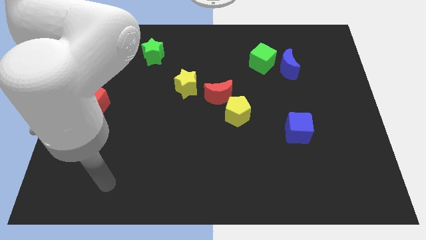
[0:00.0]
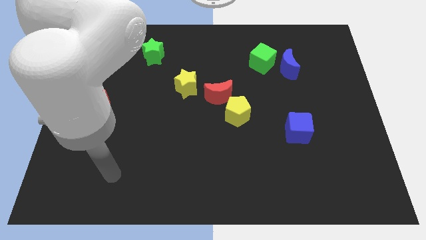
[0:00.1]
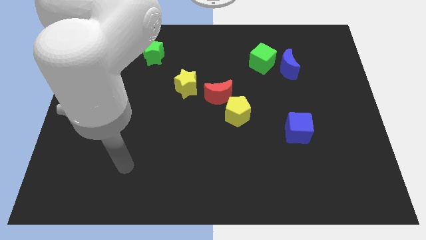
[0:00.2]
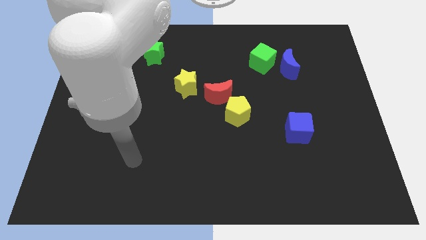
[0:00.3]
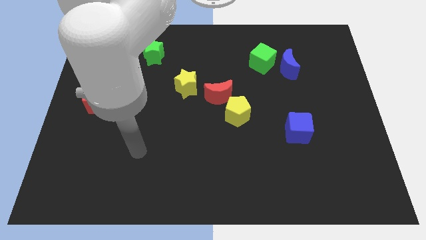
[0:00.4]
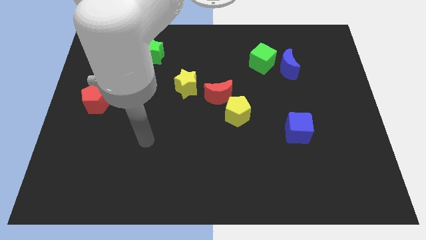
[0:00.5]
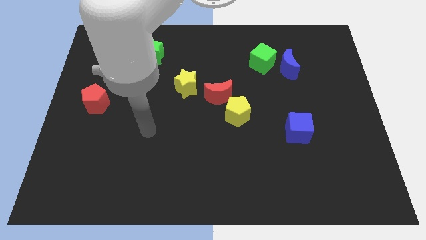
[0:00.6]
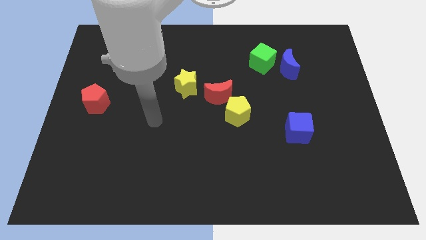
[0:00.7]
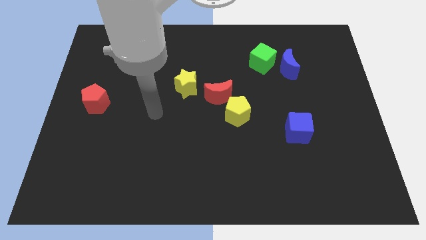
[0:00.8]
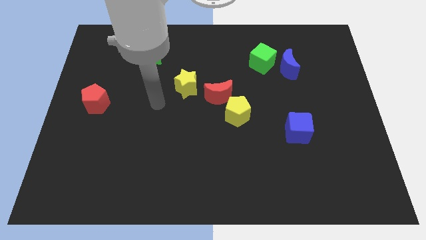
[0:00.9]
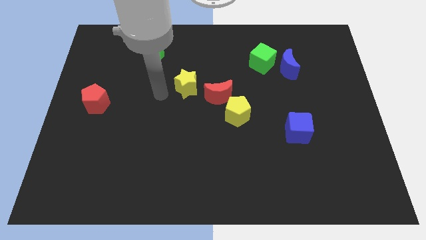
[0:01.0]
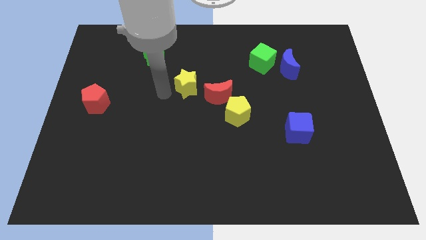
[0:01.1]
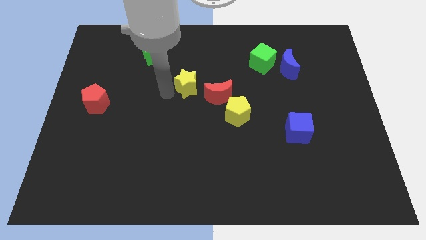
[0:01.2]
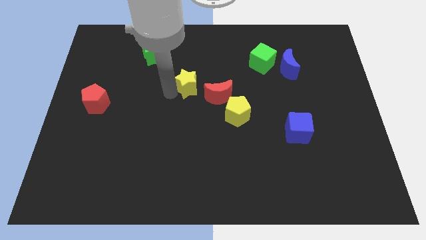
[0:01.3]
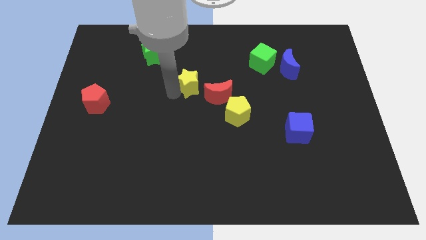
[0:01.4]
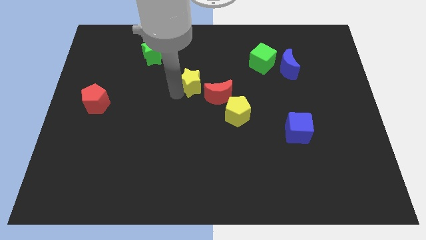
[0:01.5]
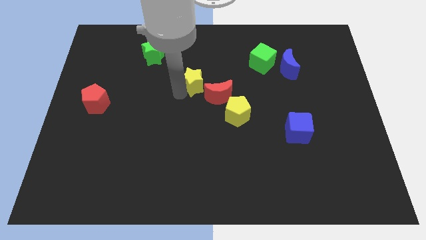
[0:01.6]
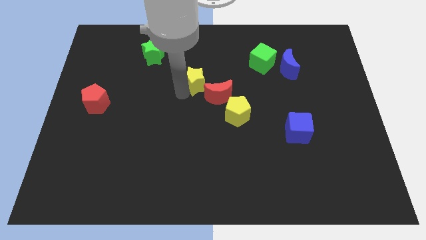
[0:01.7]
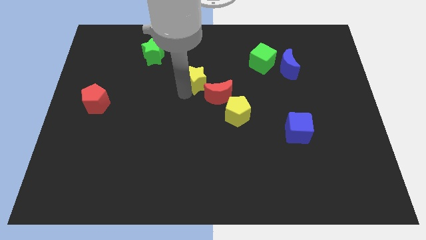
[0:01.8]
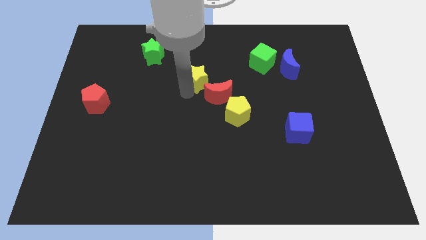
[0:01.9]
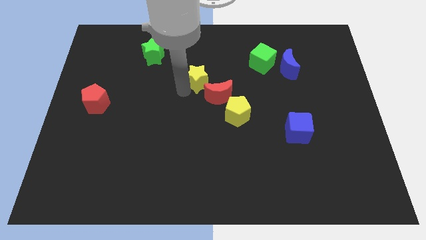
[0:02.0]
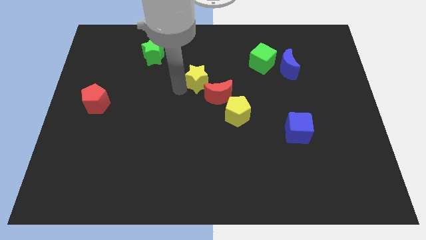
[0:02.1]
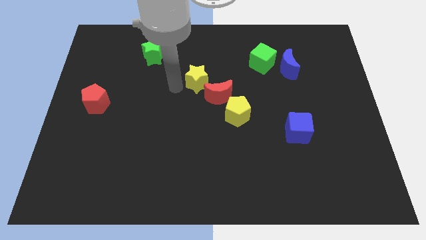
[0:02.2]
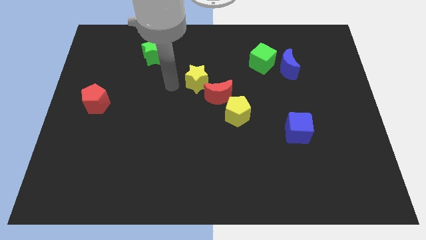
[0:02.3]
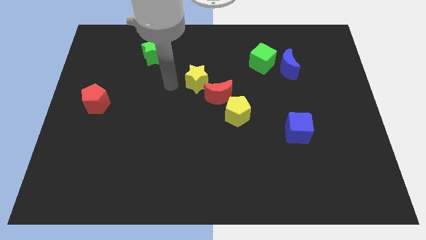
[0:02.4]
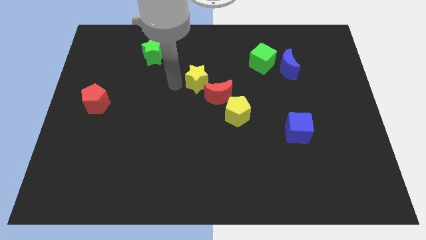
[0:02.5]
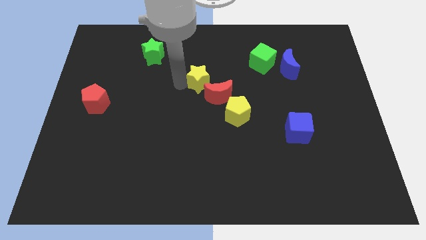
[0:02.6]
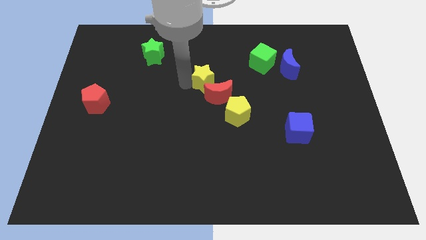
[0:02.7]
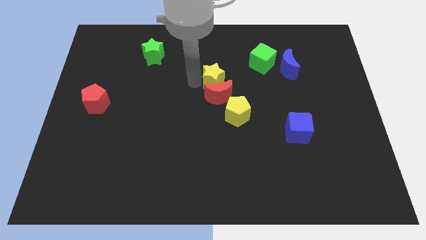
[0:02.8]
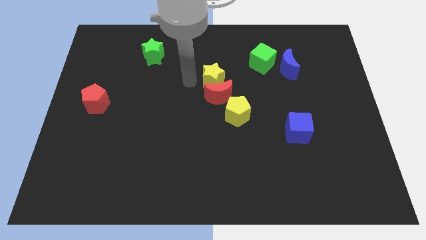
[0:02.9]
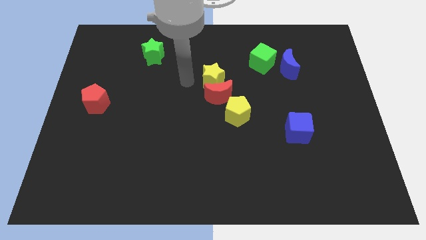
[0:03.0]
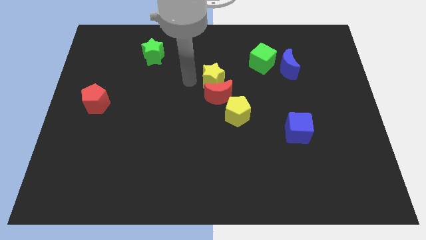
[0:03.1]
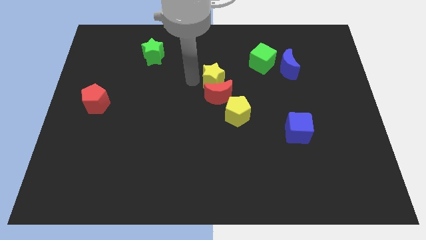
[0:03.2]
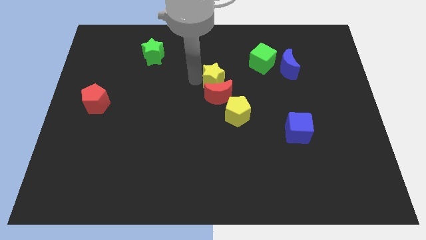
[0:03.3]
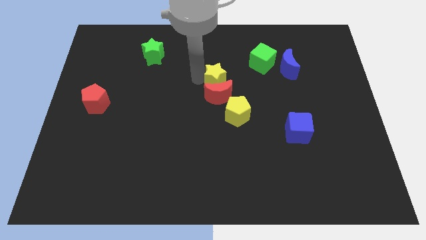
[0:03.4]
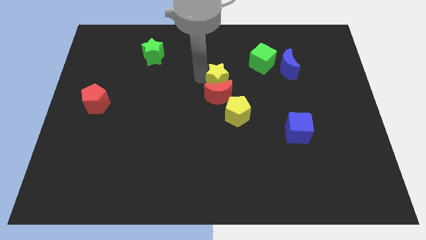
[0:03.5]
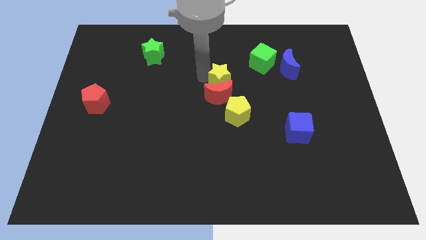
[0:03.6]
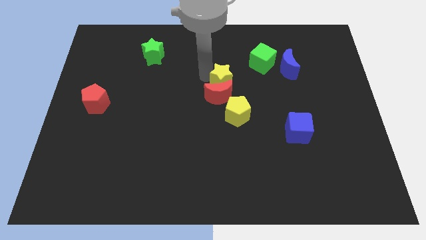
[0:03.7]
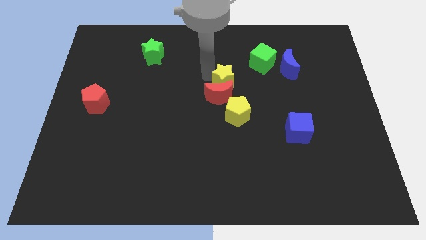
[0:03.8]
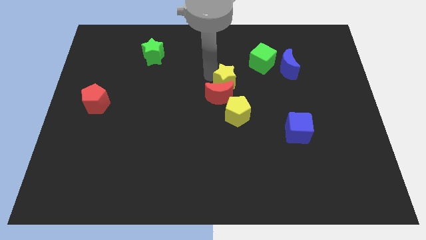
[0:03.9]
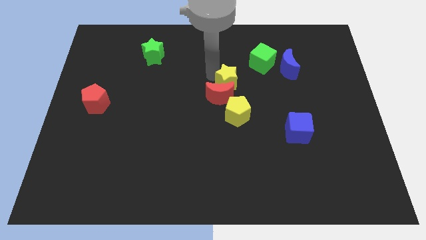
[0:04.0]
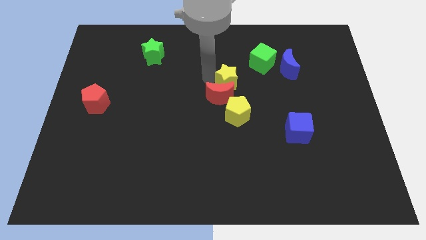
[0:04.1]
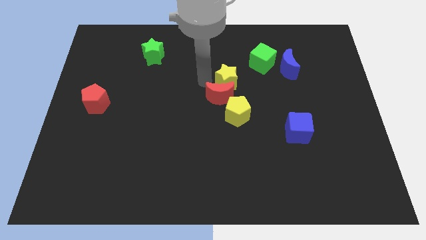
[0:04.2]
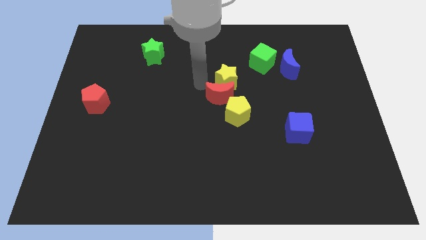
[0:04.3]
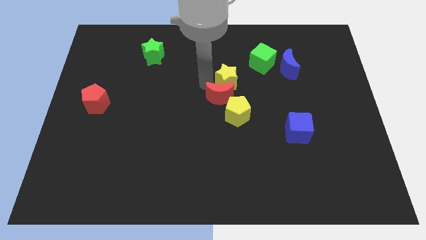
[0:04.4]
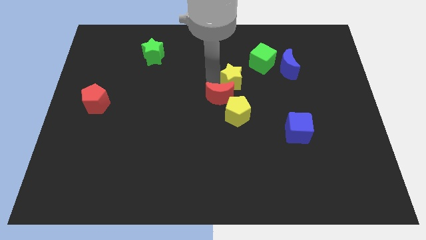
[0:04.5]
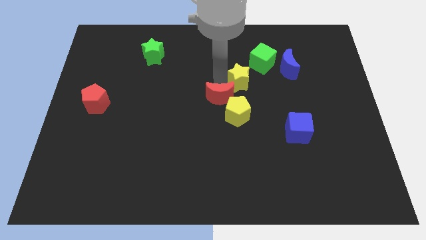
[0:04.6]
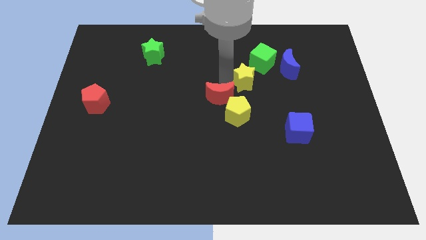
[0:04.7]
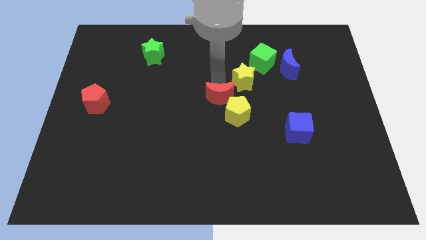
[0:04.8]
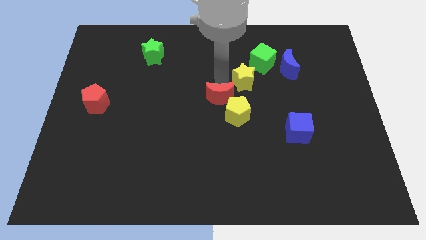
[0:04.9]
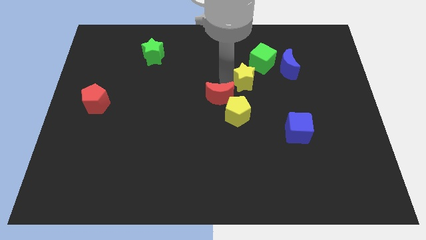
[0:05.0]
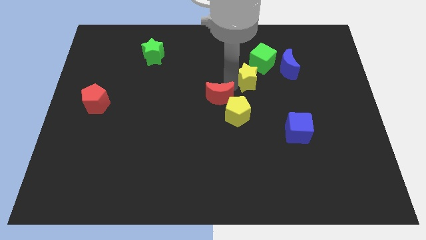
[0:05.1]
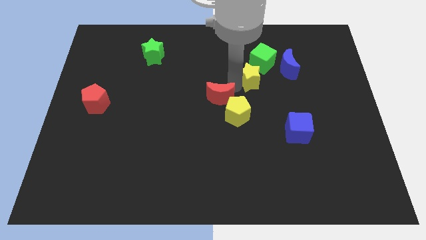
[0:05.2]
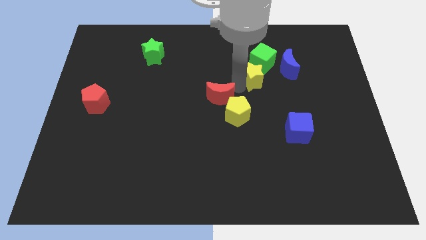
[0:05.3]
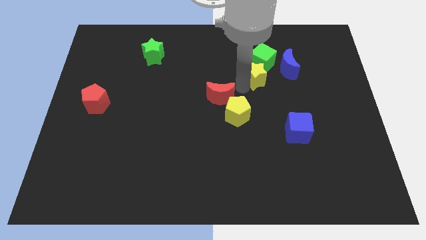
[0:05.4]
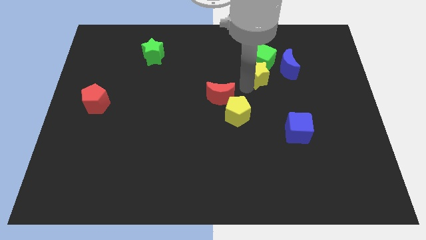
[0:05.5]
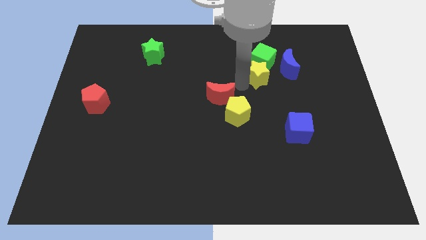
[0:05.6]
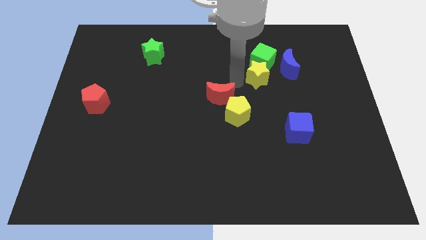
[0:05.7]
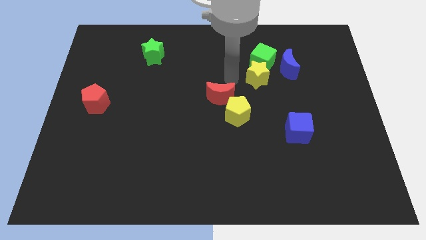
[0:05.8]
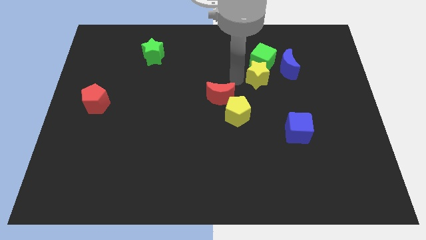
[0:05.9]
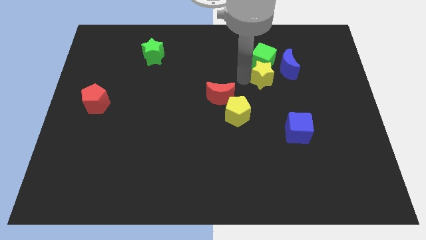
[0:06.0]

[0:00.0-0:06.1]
slide the yellow star to the bottom right side of the green cube

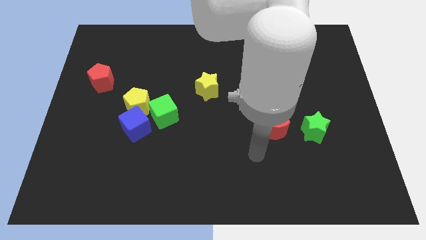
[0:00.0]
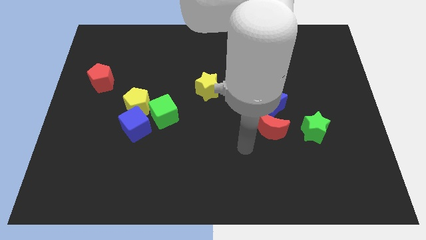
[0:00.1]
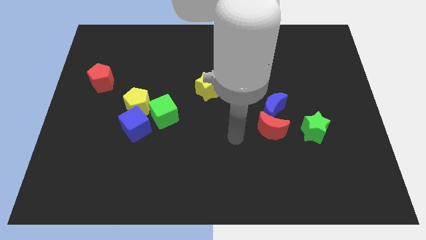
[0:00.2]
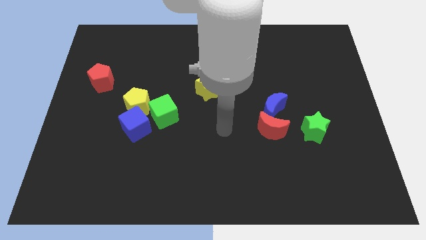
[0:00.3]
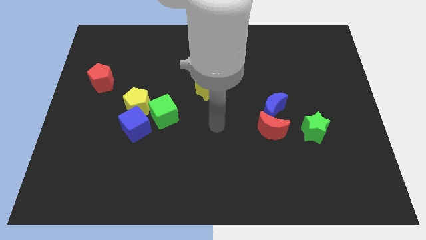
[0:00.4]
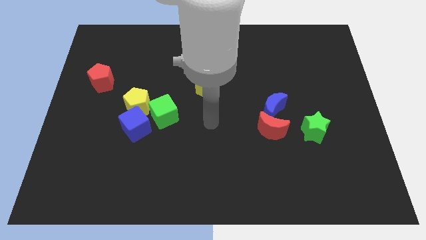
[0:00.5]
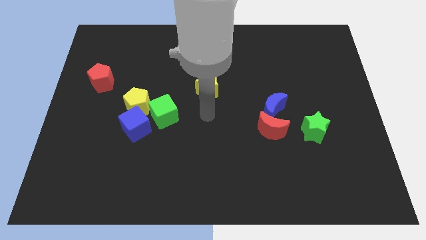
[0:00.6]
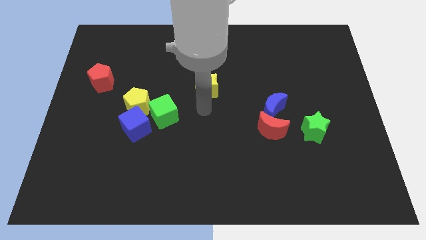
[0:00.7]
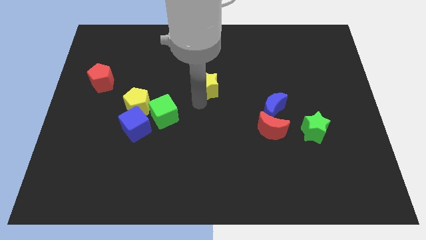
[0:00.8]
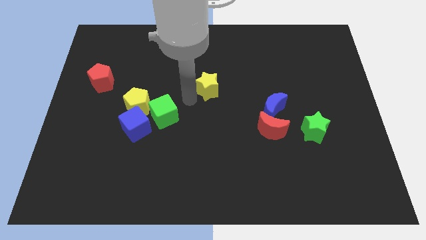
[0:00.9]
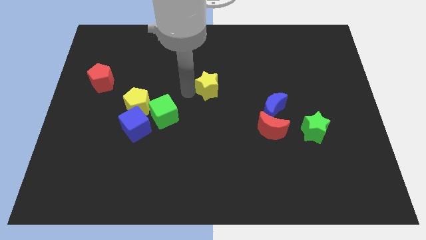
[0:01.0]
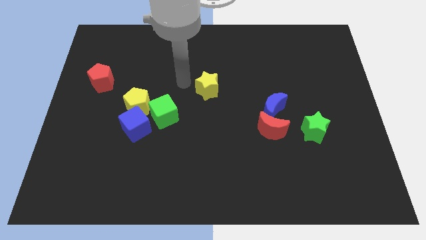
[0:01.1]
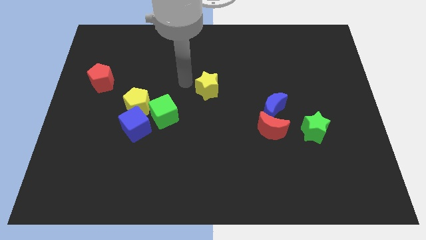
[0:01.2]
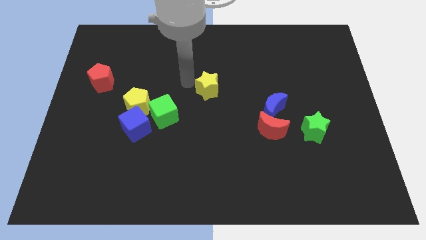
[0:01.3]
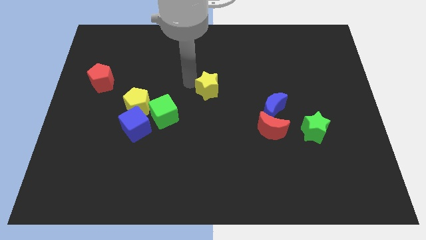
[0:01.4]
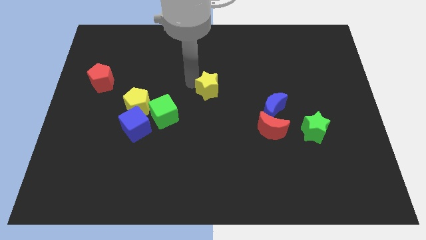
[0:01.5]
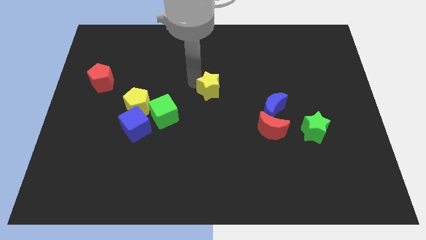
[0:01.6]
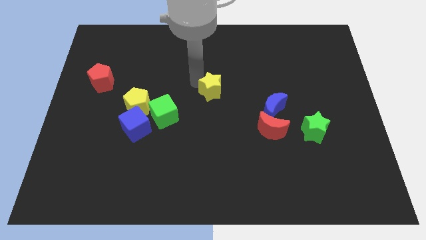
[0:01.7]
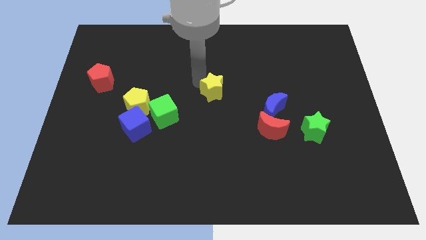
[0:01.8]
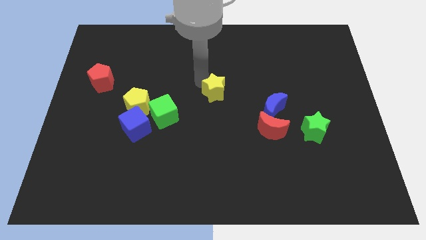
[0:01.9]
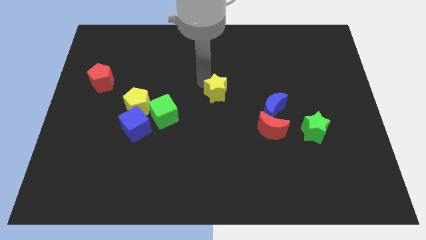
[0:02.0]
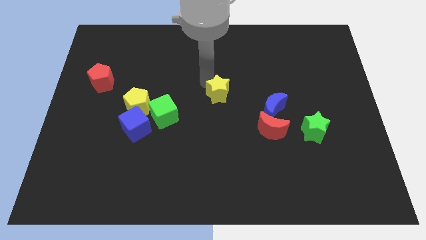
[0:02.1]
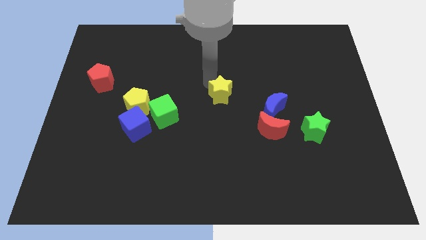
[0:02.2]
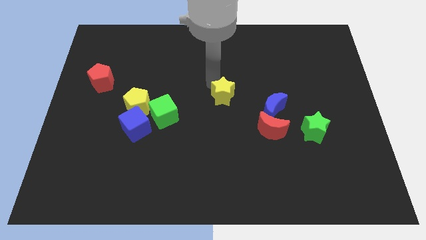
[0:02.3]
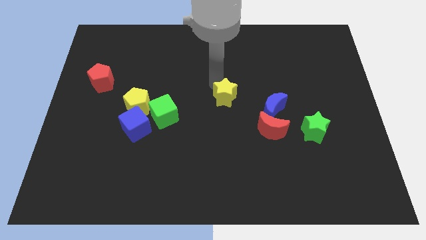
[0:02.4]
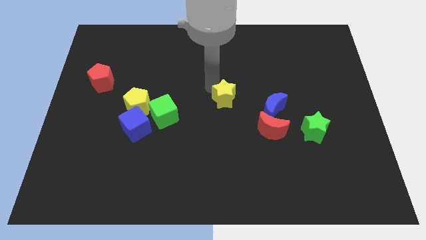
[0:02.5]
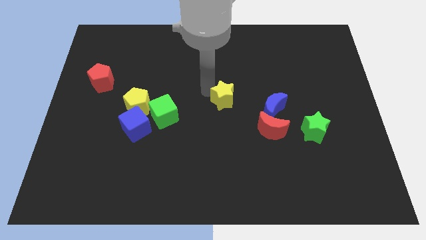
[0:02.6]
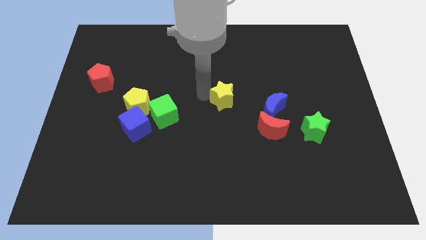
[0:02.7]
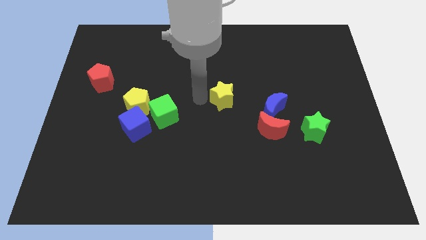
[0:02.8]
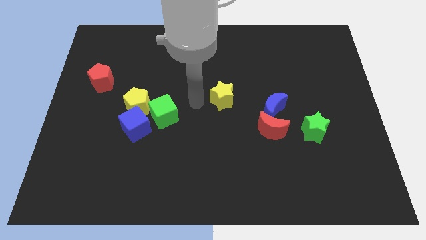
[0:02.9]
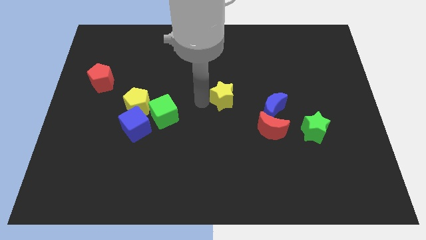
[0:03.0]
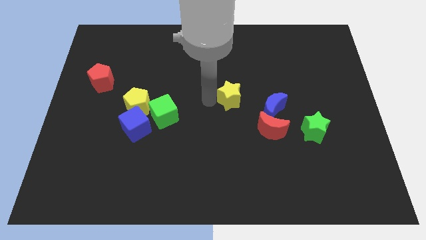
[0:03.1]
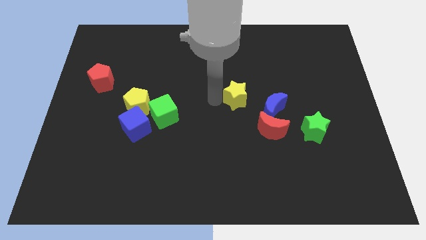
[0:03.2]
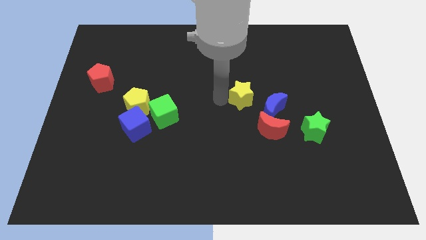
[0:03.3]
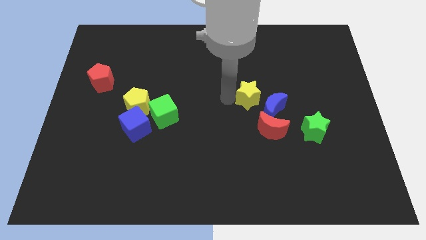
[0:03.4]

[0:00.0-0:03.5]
move the yellow star to the top of the red moon
